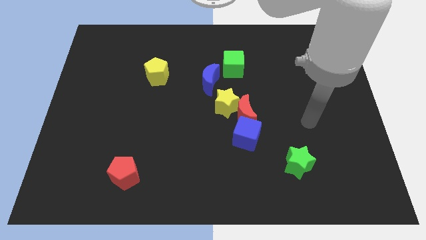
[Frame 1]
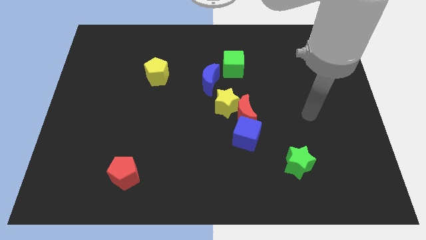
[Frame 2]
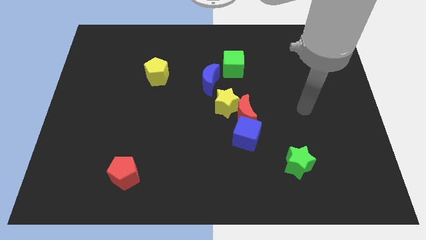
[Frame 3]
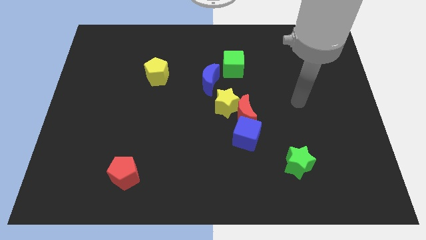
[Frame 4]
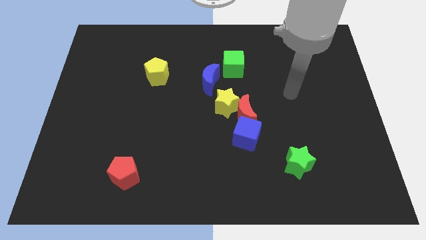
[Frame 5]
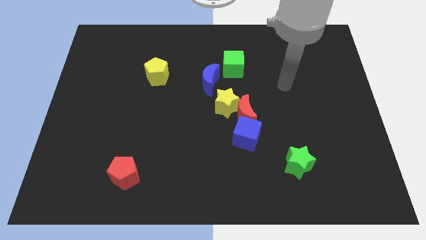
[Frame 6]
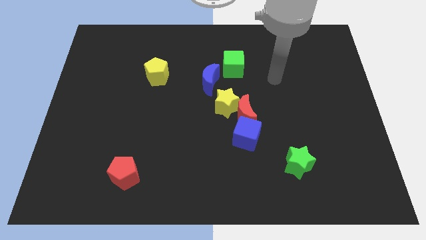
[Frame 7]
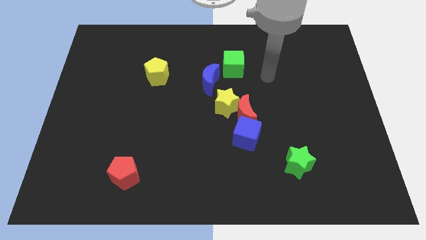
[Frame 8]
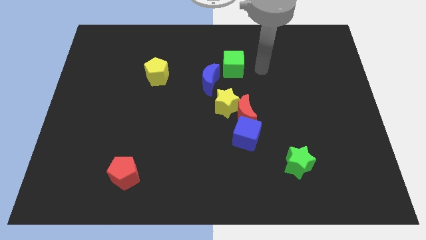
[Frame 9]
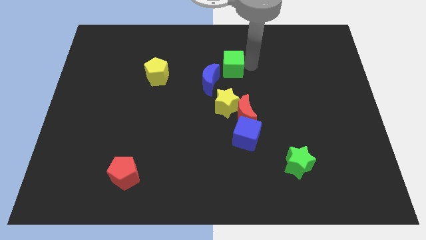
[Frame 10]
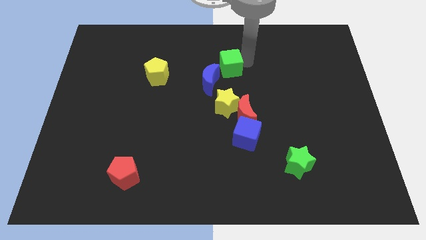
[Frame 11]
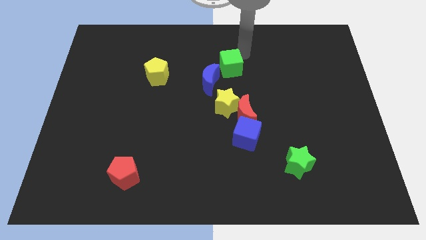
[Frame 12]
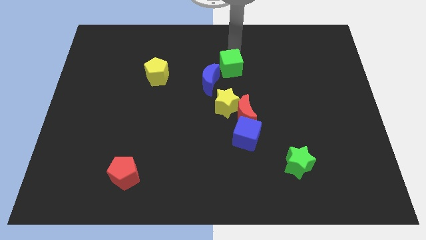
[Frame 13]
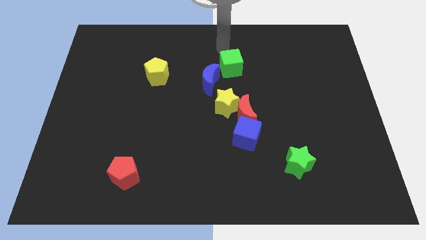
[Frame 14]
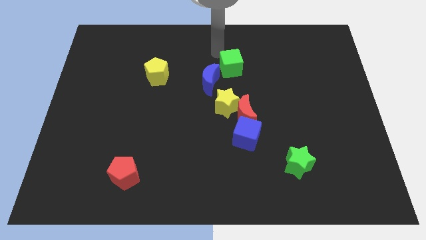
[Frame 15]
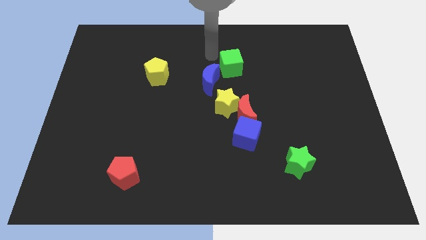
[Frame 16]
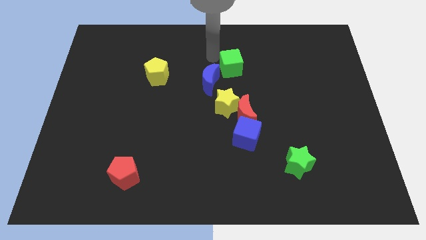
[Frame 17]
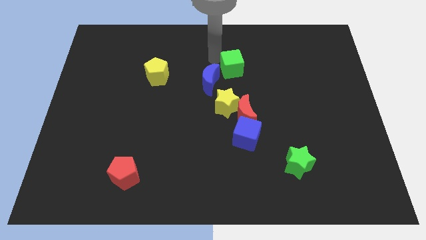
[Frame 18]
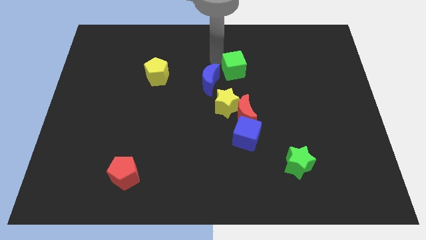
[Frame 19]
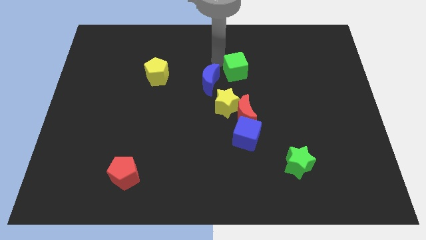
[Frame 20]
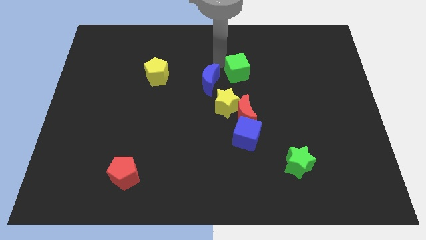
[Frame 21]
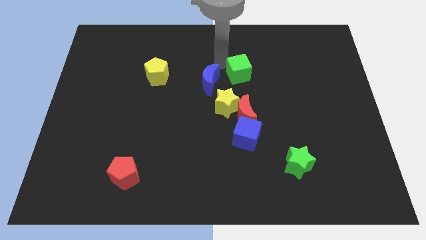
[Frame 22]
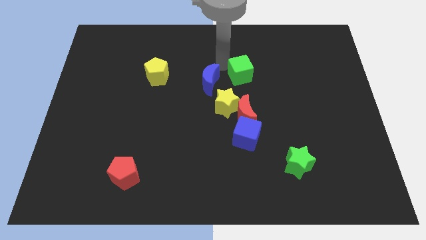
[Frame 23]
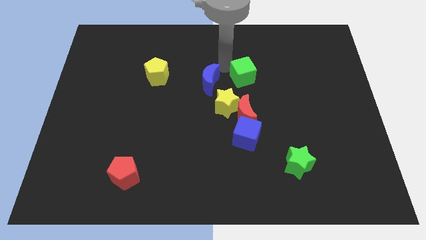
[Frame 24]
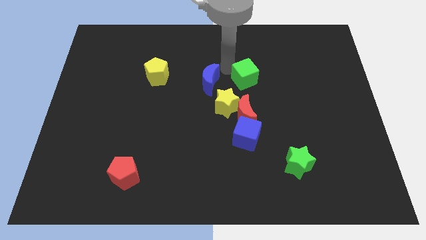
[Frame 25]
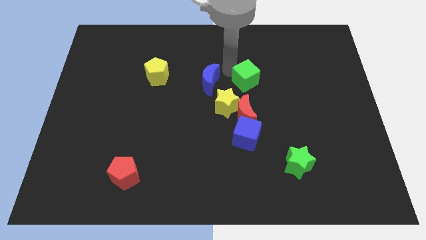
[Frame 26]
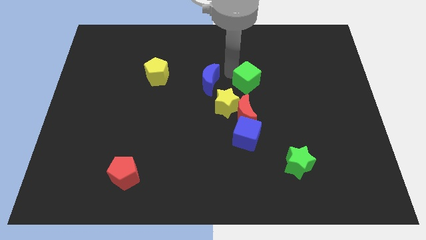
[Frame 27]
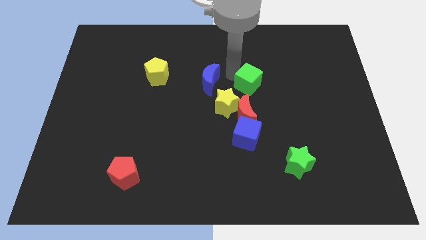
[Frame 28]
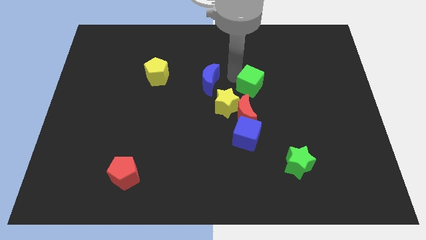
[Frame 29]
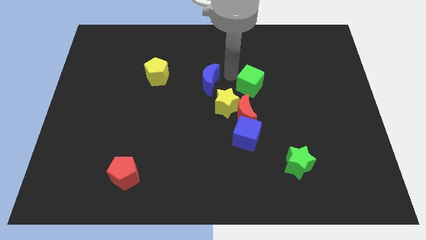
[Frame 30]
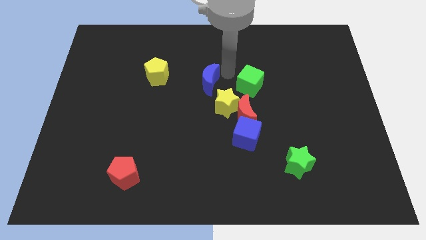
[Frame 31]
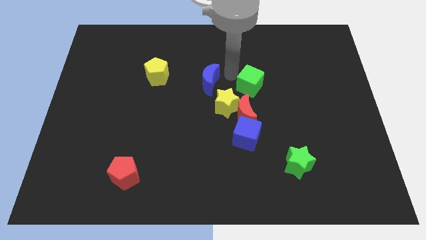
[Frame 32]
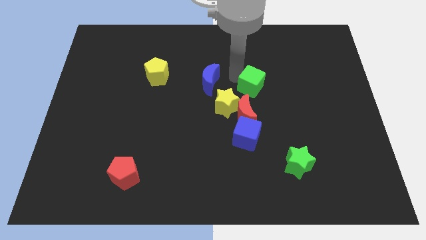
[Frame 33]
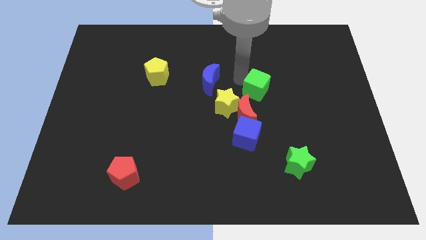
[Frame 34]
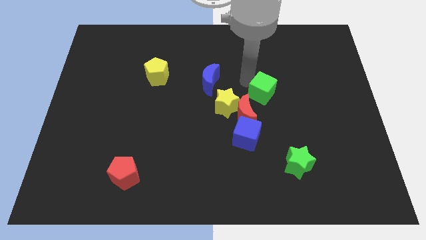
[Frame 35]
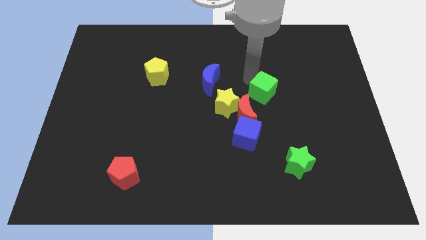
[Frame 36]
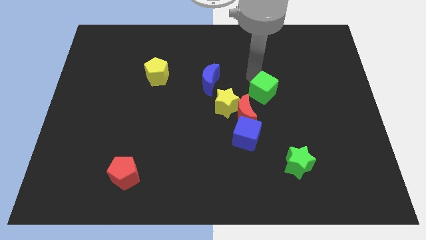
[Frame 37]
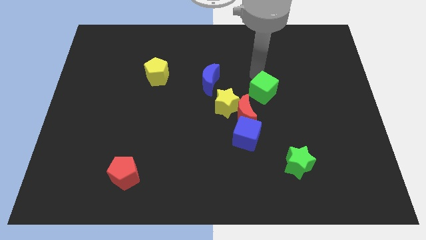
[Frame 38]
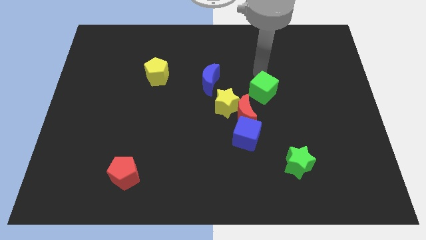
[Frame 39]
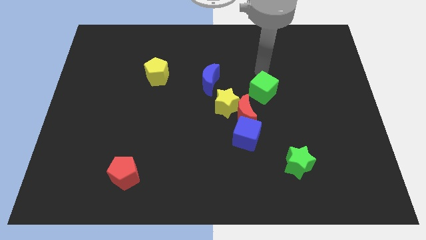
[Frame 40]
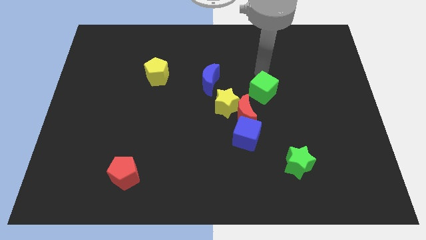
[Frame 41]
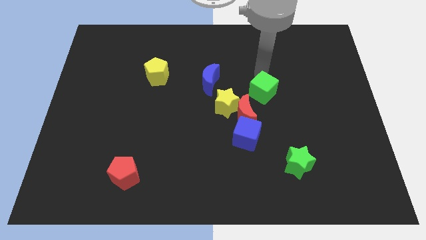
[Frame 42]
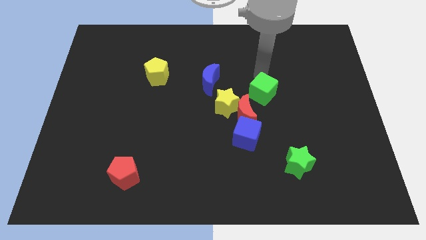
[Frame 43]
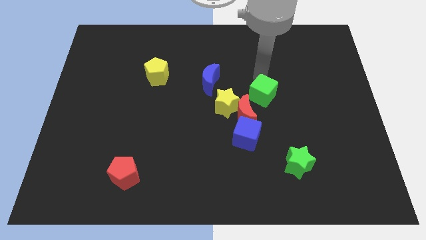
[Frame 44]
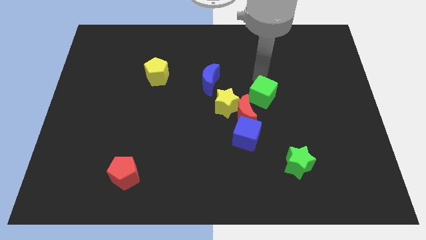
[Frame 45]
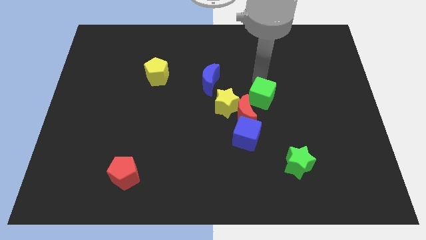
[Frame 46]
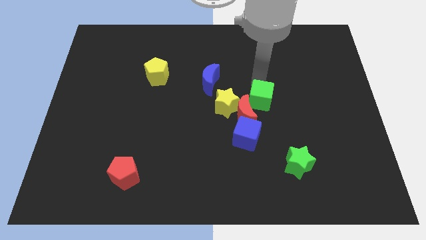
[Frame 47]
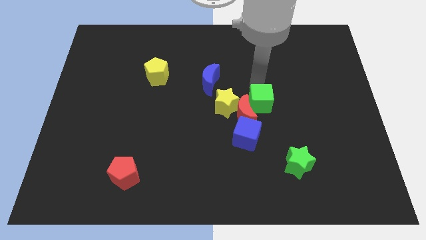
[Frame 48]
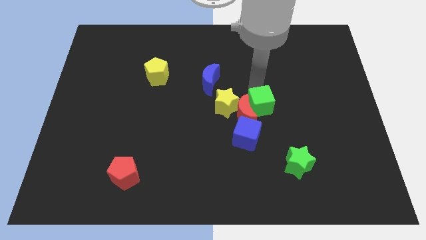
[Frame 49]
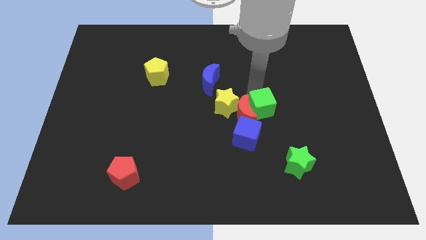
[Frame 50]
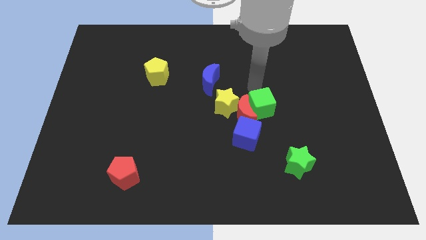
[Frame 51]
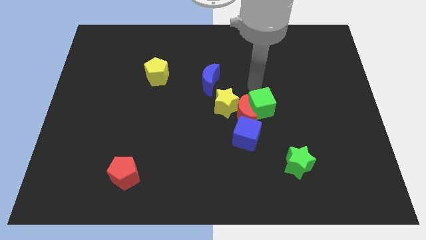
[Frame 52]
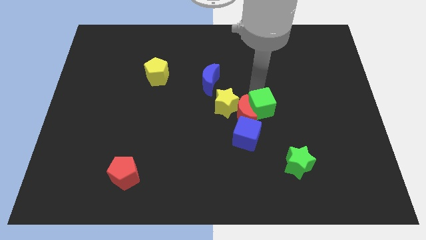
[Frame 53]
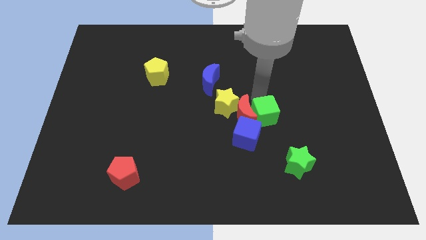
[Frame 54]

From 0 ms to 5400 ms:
move the green cube to the bottom right side of the red moon

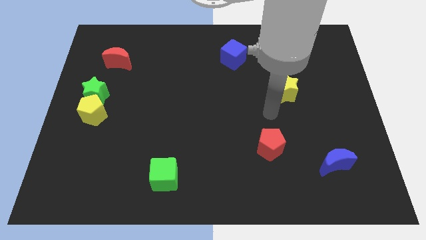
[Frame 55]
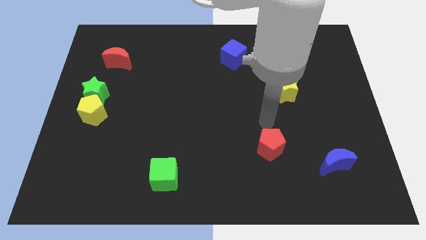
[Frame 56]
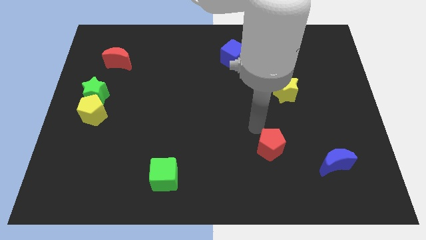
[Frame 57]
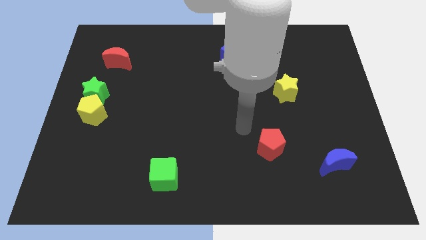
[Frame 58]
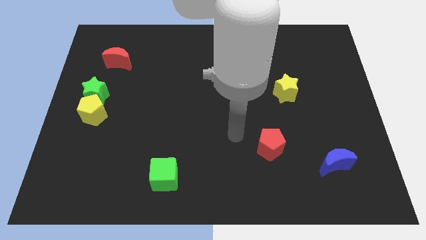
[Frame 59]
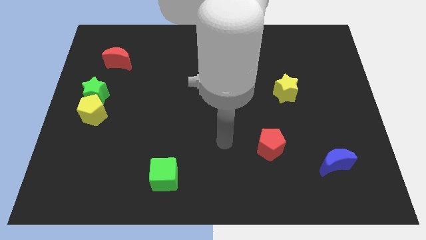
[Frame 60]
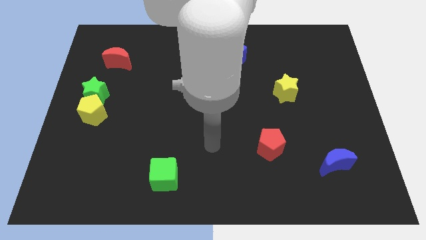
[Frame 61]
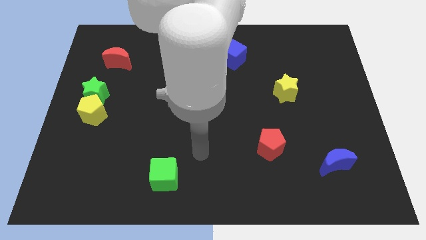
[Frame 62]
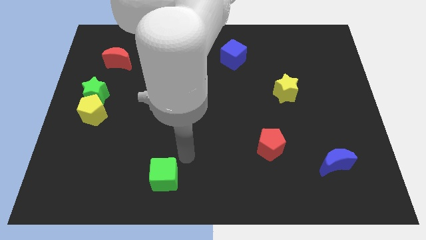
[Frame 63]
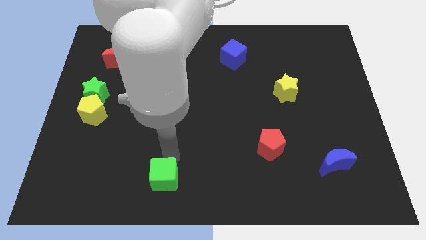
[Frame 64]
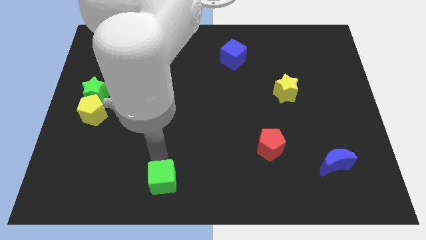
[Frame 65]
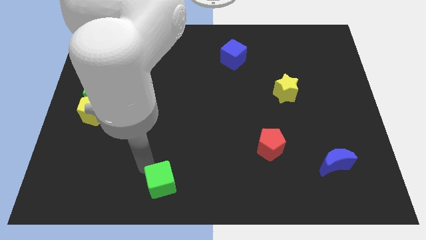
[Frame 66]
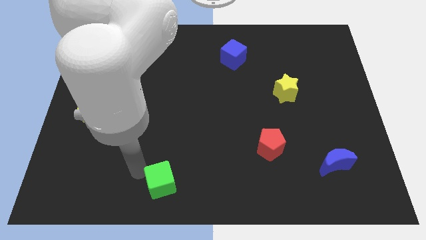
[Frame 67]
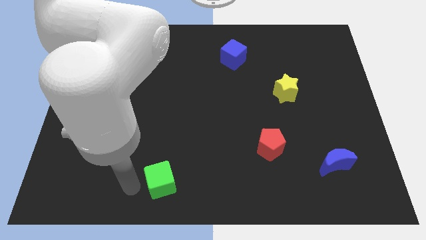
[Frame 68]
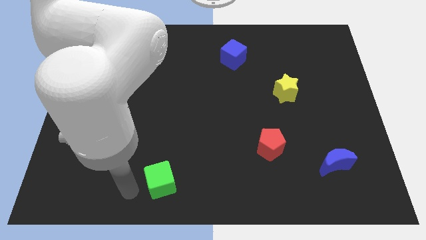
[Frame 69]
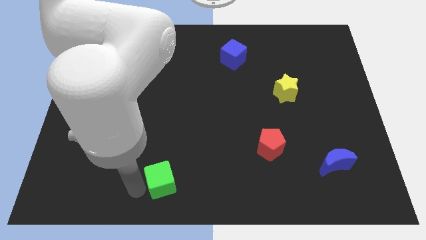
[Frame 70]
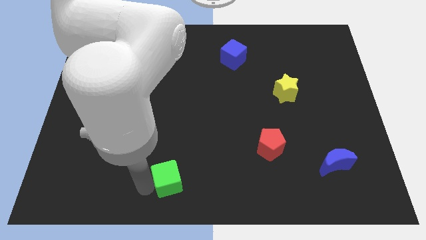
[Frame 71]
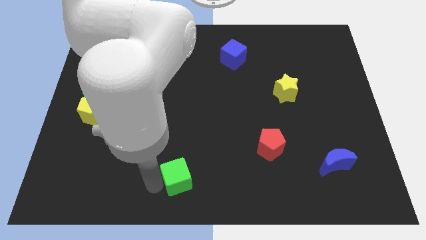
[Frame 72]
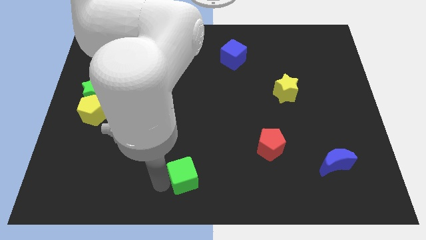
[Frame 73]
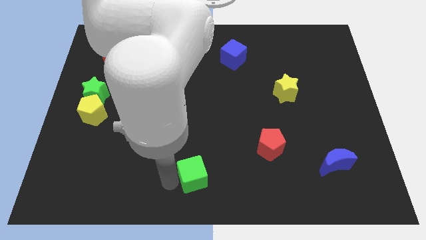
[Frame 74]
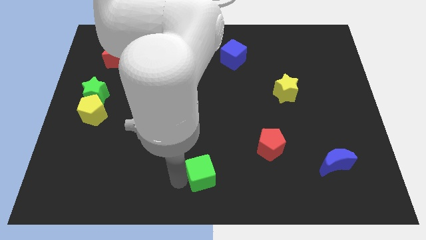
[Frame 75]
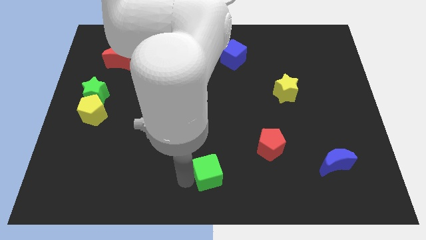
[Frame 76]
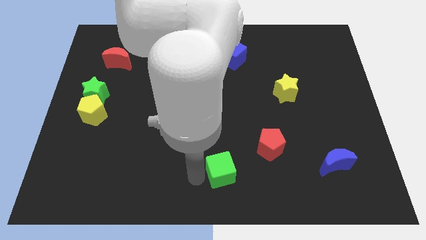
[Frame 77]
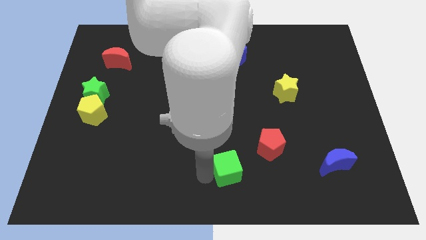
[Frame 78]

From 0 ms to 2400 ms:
slide the green cube to the bottom left side of the red pentagon
